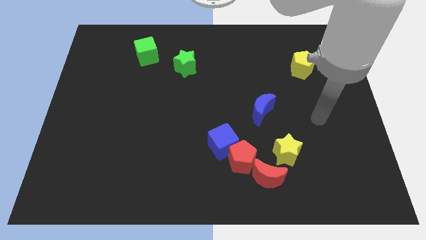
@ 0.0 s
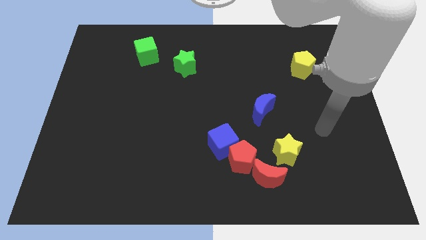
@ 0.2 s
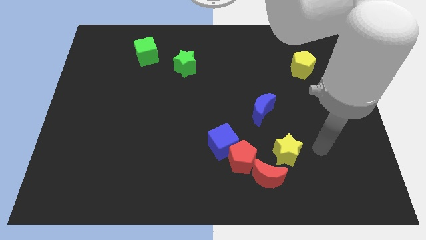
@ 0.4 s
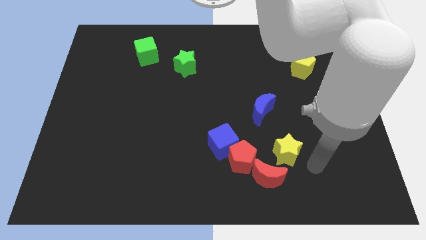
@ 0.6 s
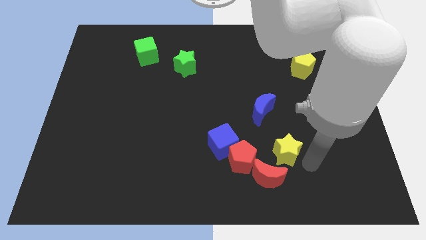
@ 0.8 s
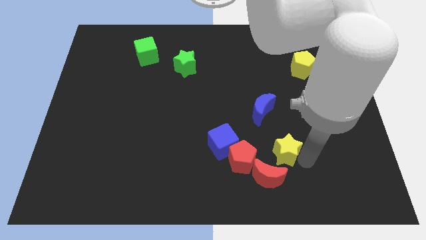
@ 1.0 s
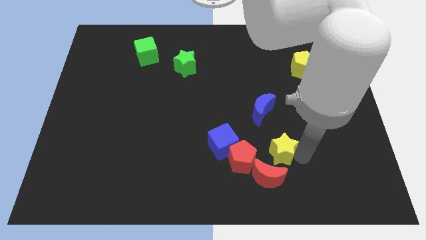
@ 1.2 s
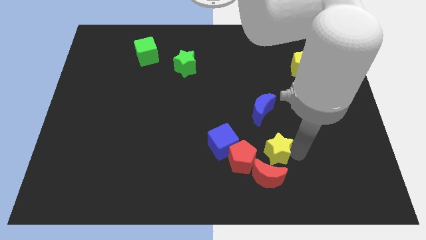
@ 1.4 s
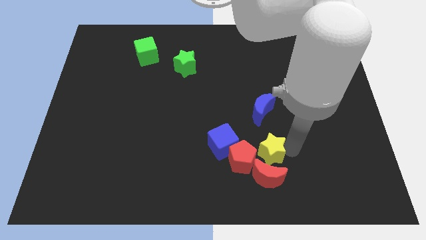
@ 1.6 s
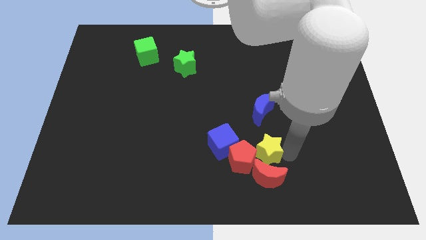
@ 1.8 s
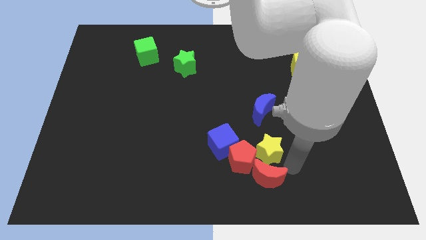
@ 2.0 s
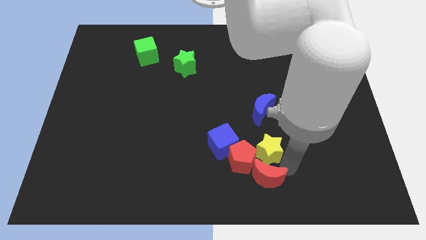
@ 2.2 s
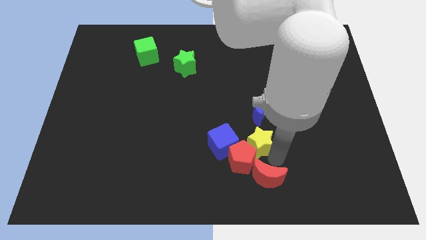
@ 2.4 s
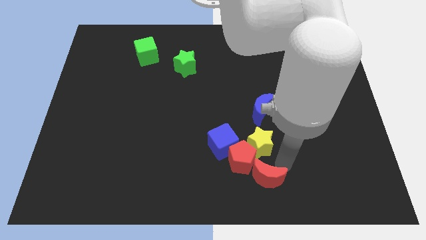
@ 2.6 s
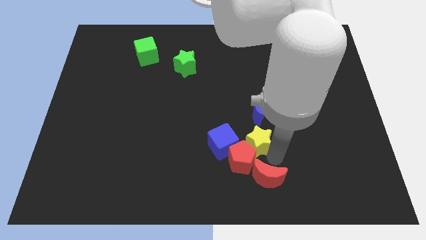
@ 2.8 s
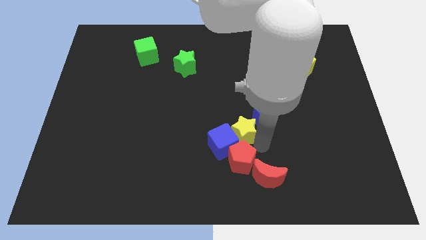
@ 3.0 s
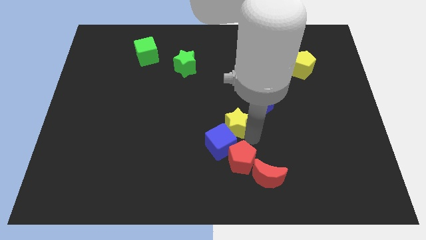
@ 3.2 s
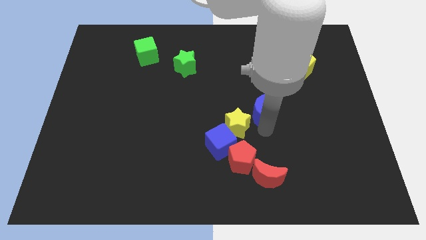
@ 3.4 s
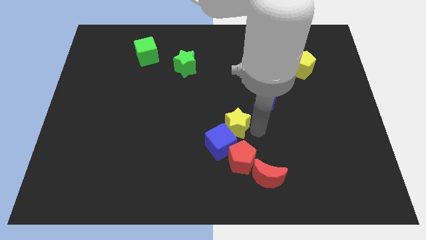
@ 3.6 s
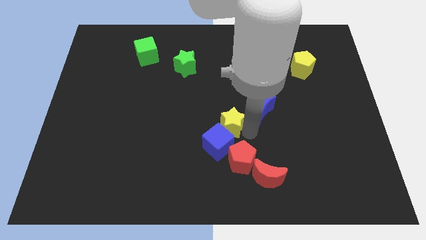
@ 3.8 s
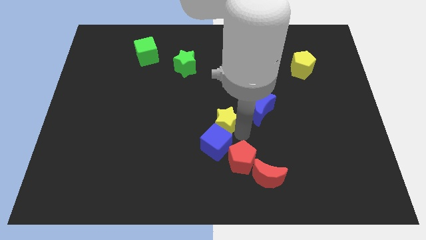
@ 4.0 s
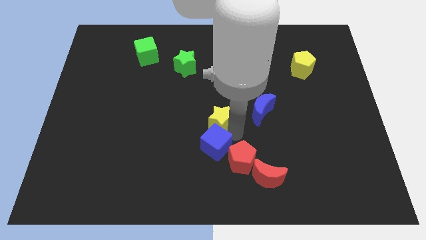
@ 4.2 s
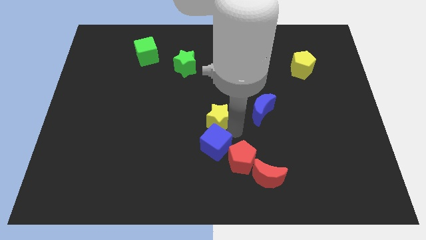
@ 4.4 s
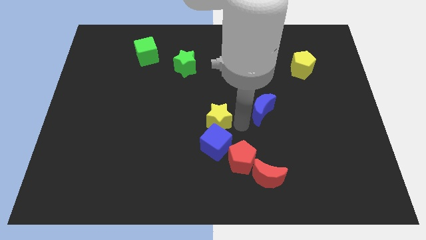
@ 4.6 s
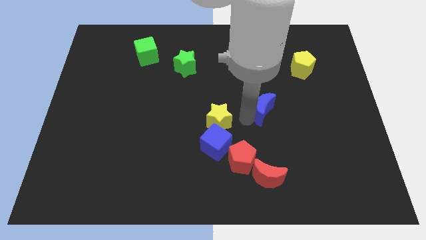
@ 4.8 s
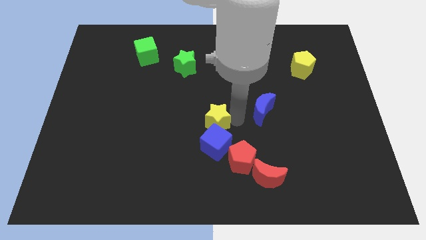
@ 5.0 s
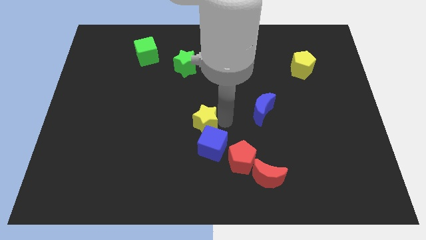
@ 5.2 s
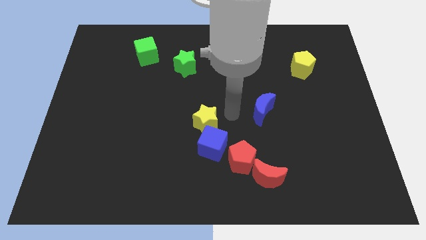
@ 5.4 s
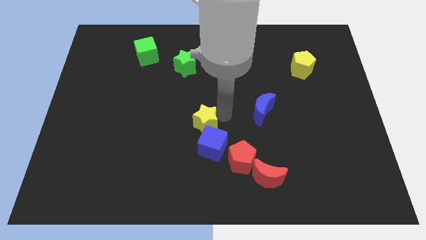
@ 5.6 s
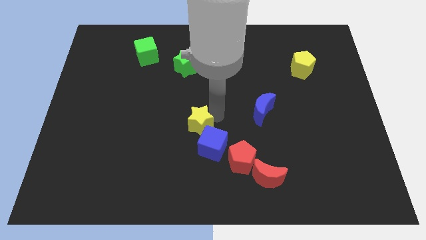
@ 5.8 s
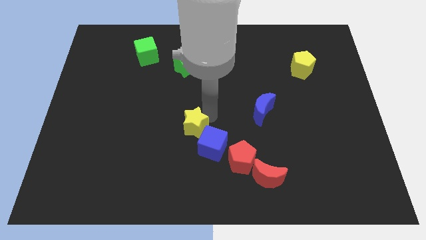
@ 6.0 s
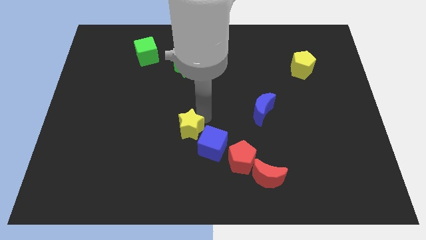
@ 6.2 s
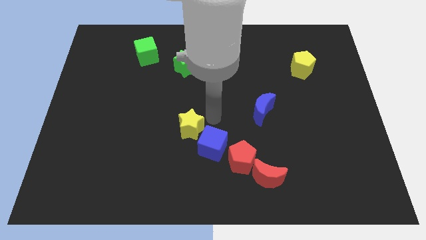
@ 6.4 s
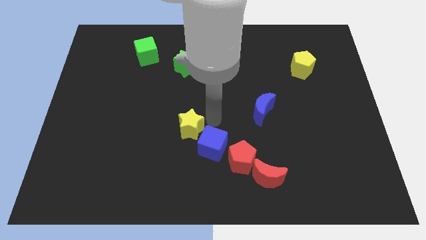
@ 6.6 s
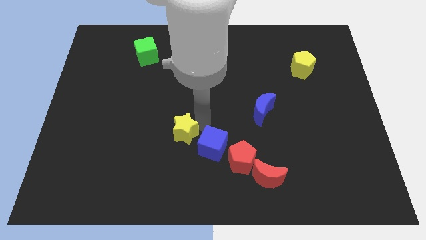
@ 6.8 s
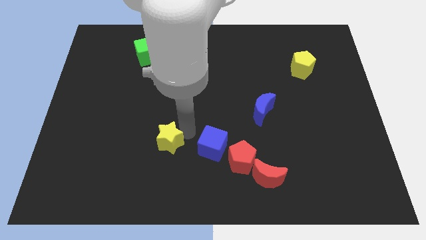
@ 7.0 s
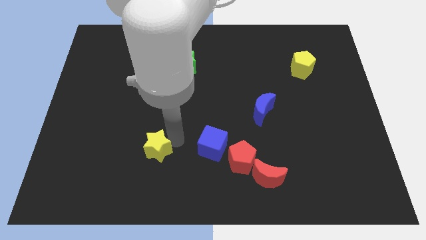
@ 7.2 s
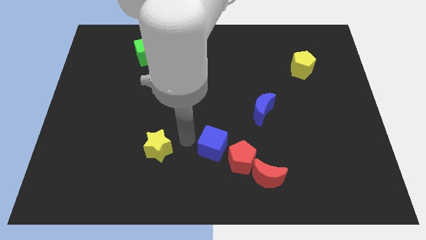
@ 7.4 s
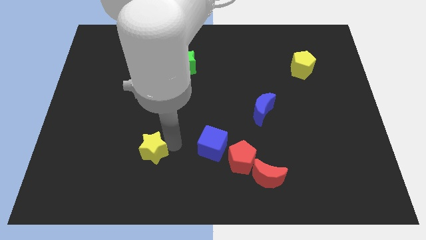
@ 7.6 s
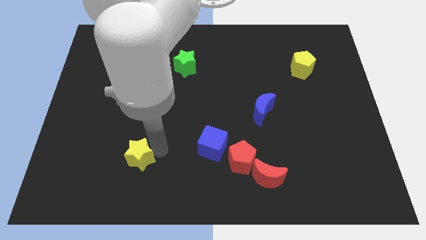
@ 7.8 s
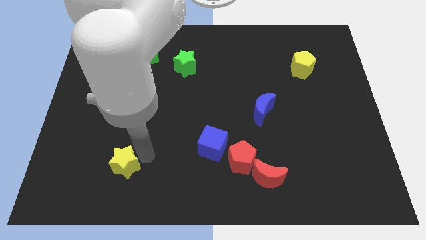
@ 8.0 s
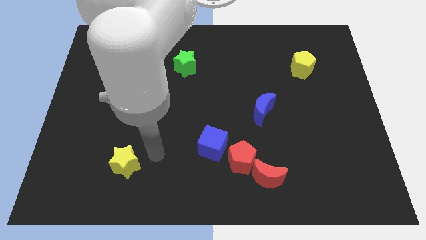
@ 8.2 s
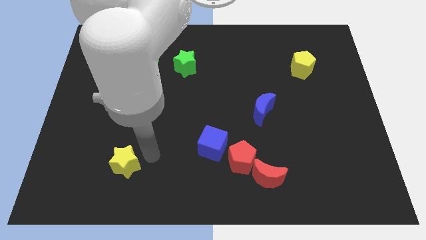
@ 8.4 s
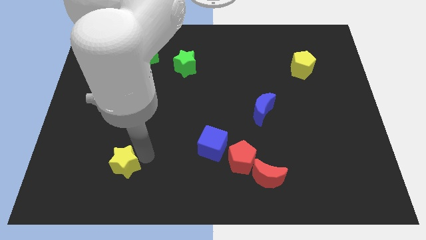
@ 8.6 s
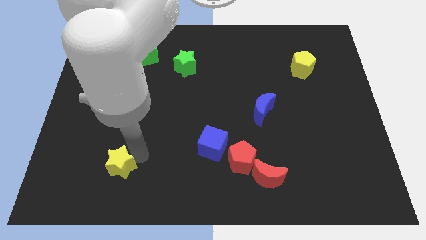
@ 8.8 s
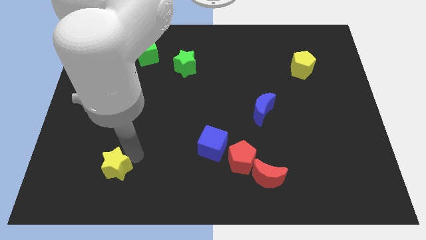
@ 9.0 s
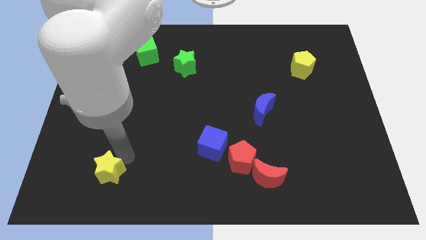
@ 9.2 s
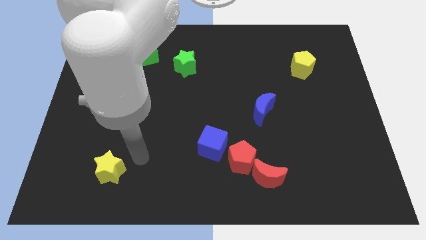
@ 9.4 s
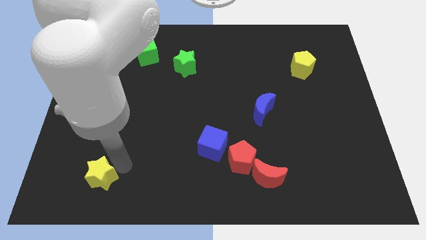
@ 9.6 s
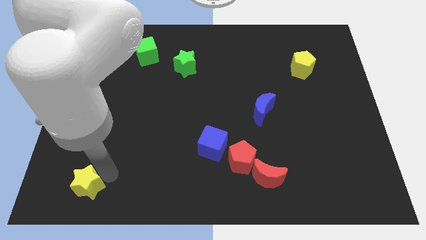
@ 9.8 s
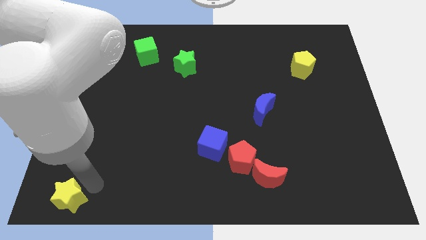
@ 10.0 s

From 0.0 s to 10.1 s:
put the yellow star to the lower left corner

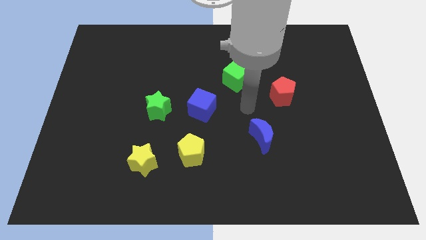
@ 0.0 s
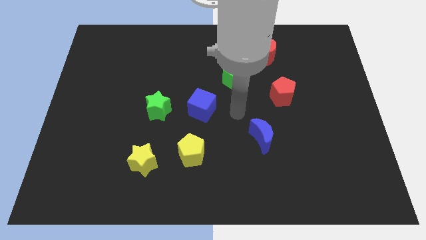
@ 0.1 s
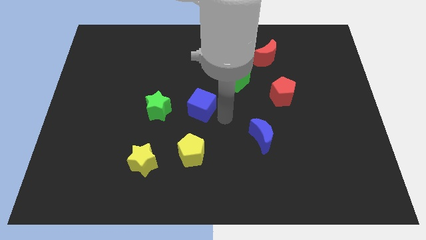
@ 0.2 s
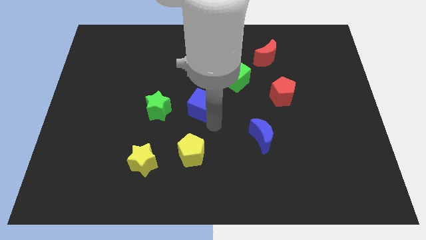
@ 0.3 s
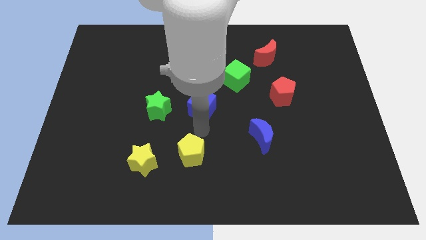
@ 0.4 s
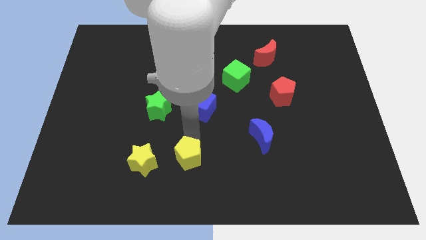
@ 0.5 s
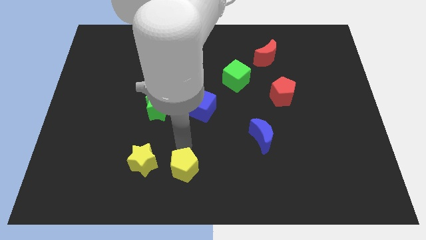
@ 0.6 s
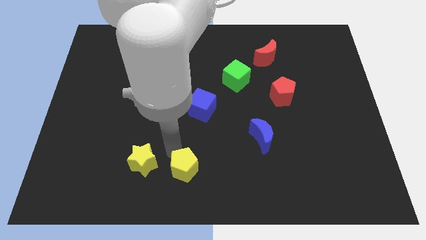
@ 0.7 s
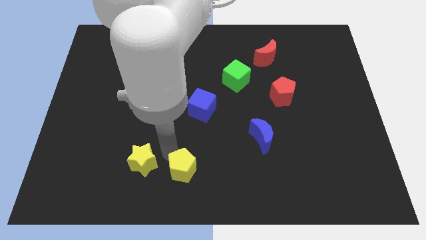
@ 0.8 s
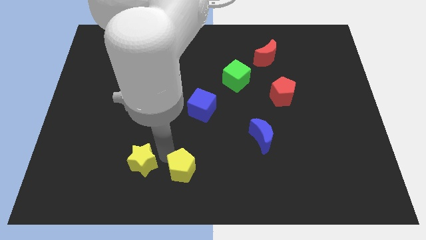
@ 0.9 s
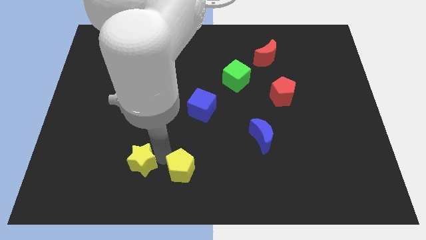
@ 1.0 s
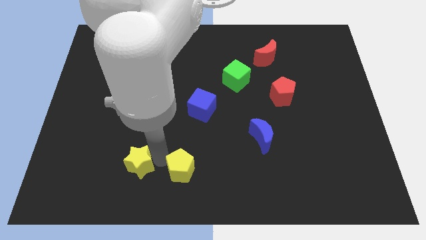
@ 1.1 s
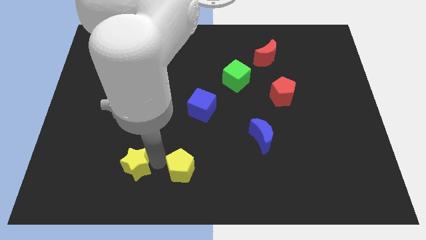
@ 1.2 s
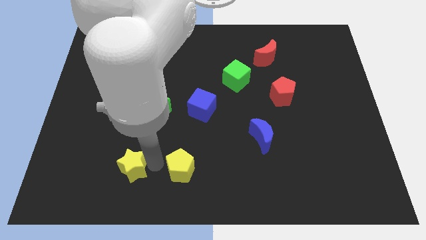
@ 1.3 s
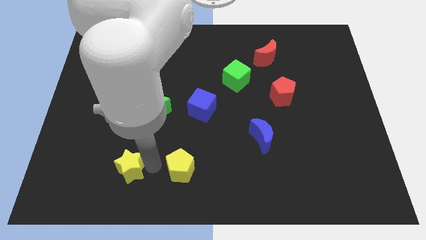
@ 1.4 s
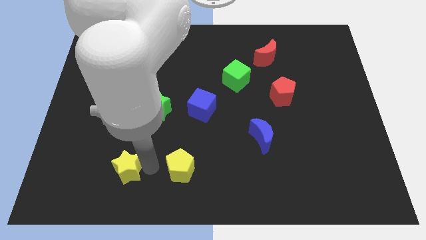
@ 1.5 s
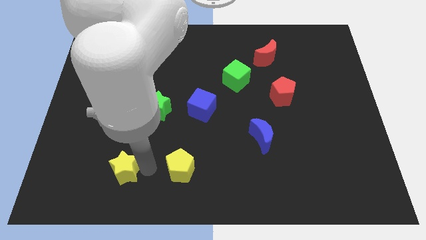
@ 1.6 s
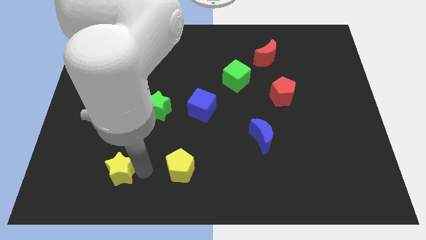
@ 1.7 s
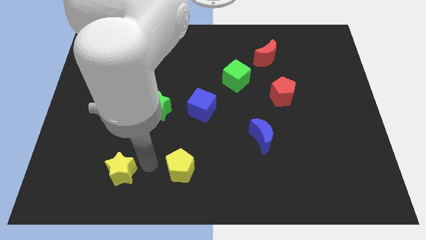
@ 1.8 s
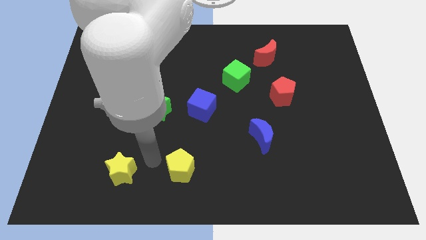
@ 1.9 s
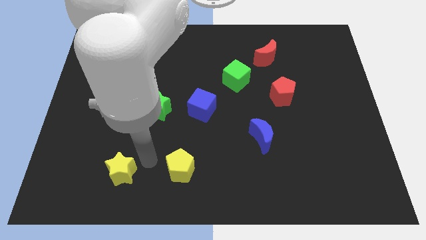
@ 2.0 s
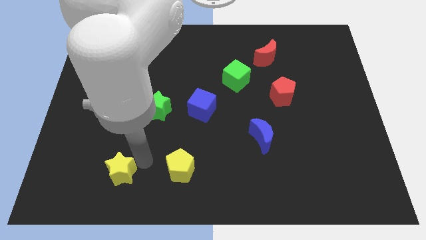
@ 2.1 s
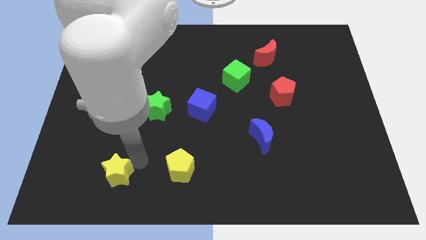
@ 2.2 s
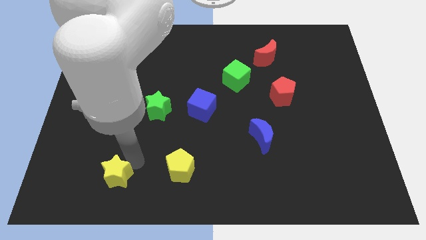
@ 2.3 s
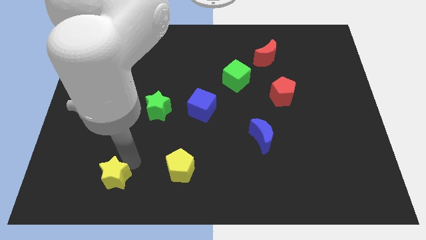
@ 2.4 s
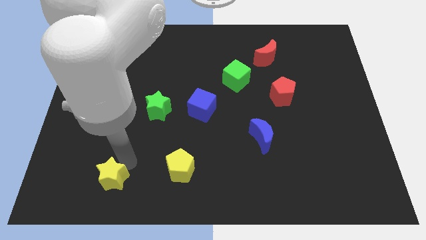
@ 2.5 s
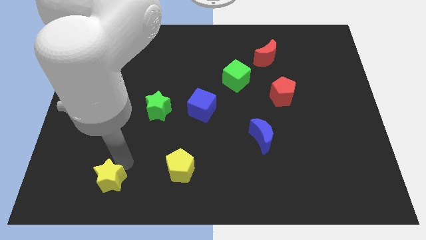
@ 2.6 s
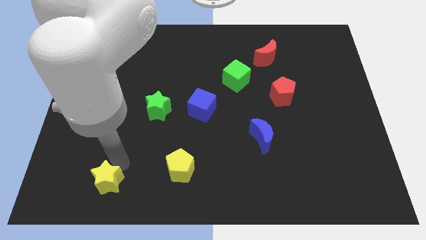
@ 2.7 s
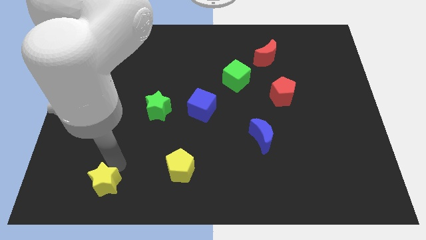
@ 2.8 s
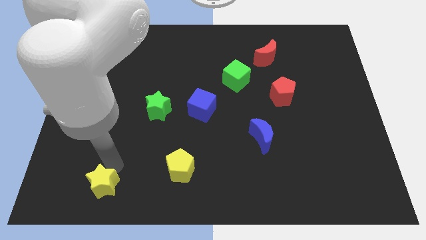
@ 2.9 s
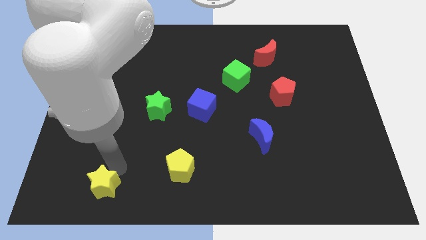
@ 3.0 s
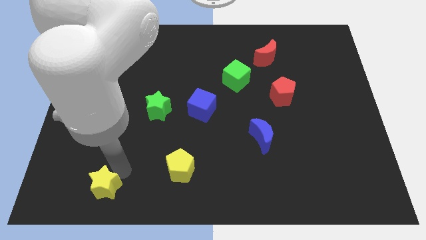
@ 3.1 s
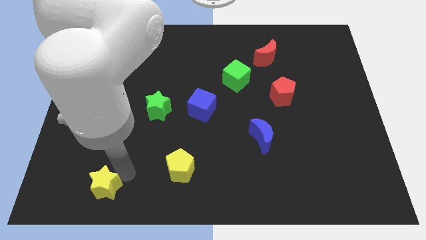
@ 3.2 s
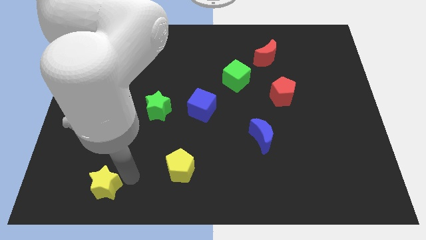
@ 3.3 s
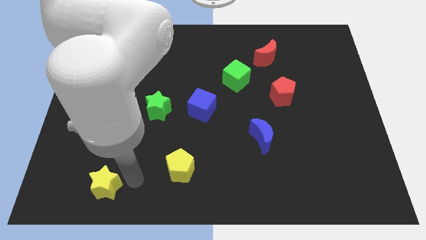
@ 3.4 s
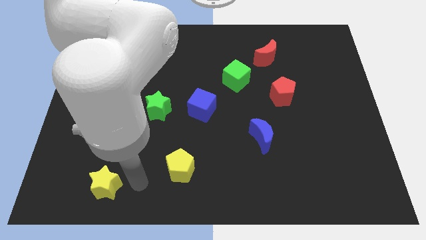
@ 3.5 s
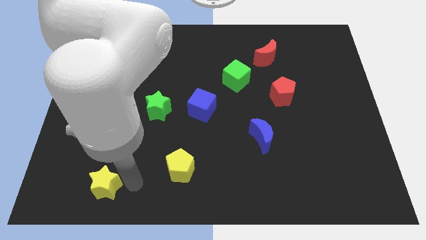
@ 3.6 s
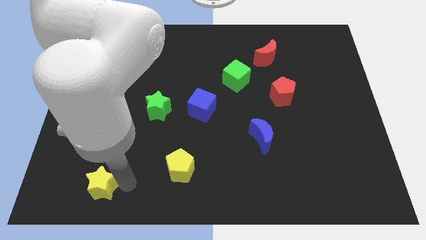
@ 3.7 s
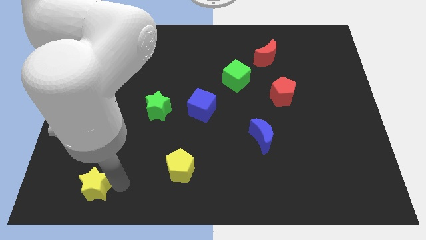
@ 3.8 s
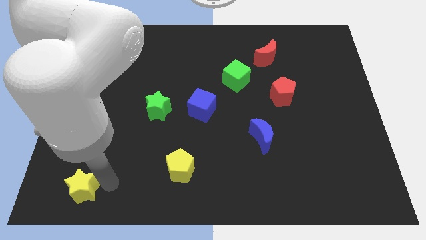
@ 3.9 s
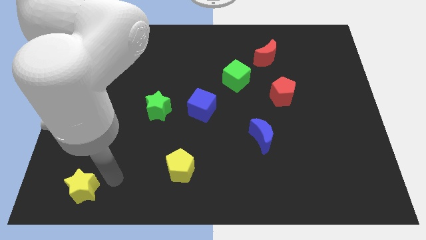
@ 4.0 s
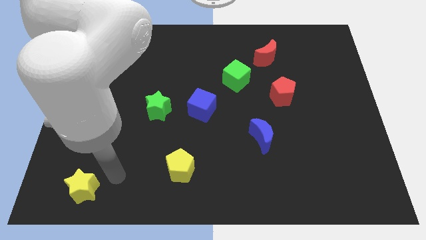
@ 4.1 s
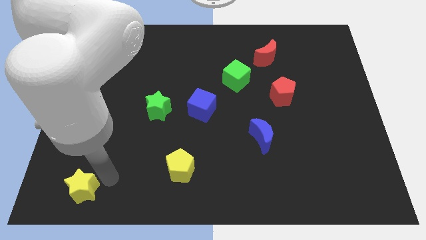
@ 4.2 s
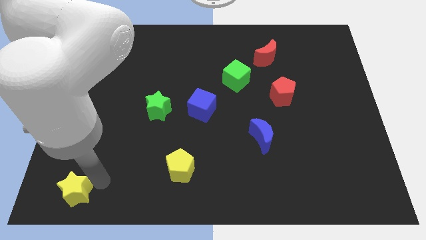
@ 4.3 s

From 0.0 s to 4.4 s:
slide the yellow star to the bottom left
